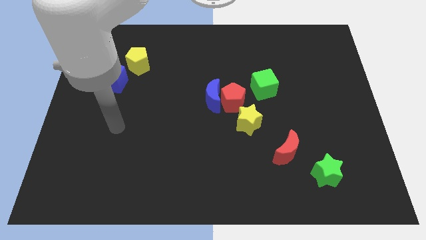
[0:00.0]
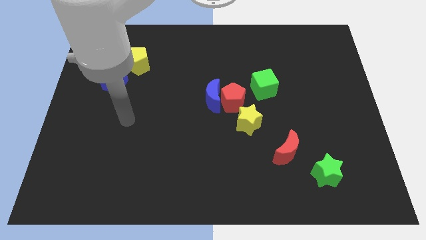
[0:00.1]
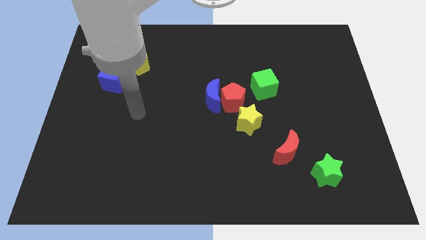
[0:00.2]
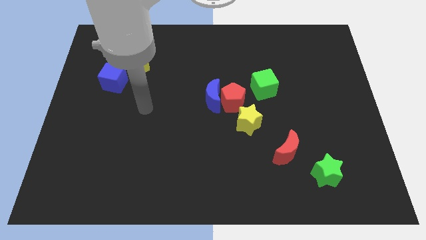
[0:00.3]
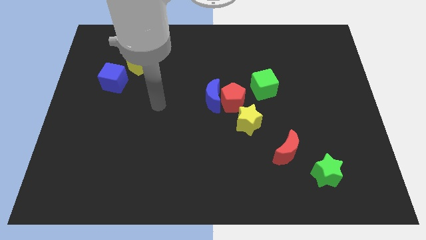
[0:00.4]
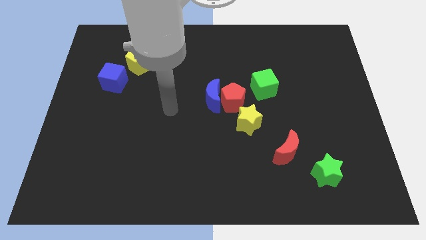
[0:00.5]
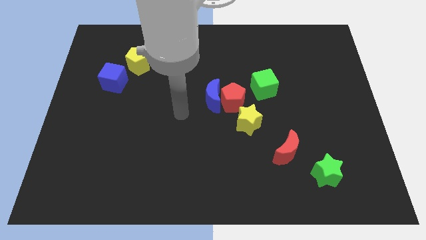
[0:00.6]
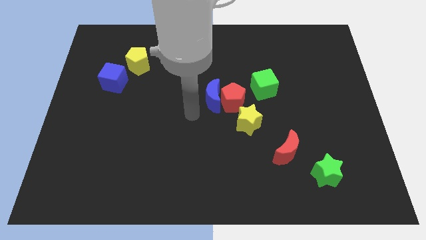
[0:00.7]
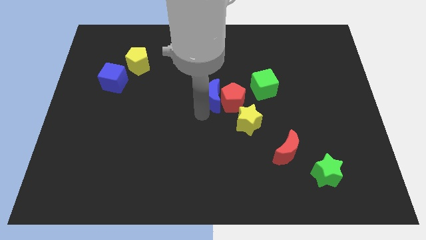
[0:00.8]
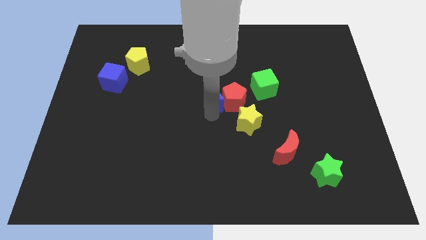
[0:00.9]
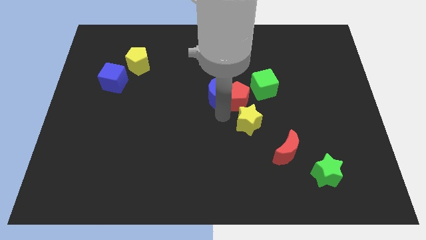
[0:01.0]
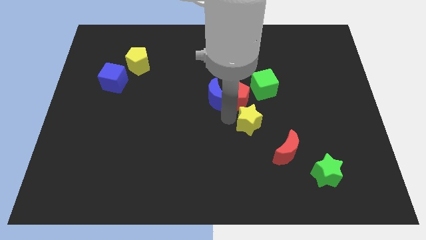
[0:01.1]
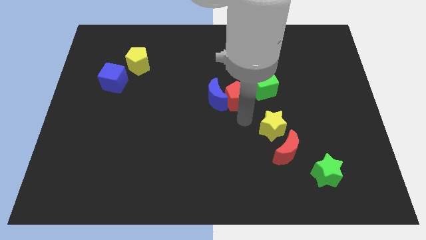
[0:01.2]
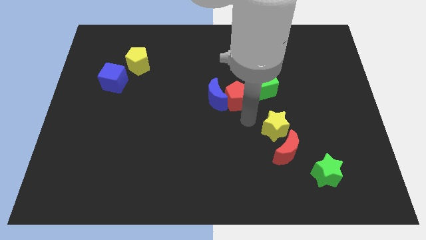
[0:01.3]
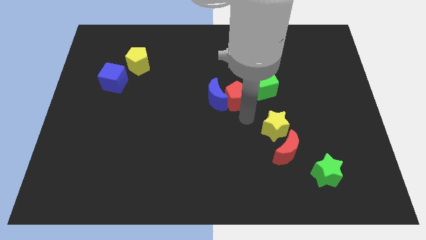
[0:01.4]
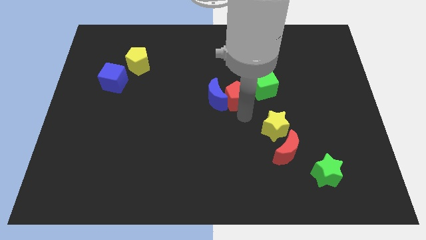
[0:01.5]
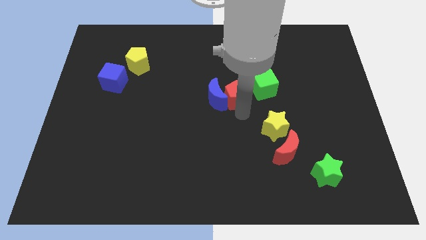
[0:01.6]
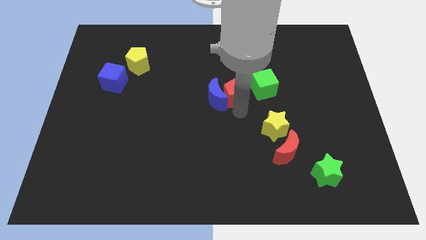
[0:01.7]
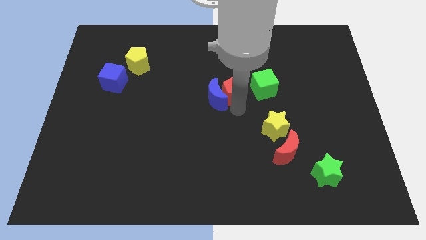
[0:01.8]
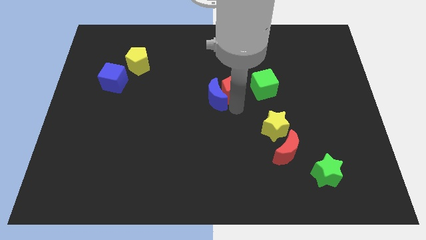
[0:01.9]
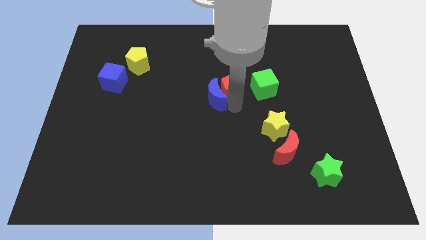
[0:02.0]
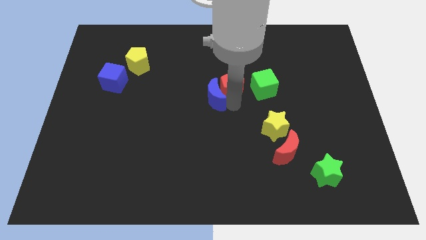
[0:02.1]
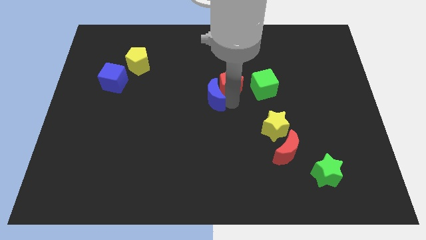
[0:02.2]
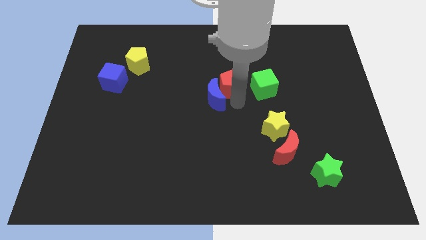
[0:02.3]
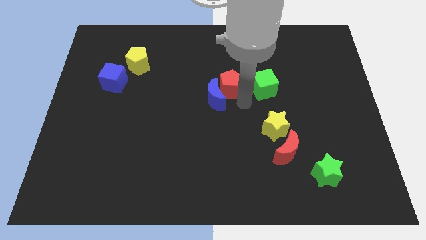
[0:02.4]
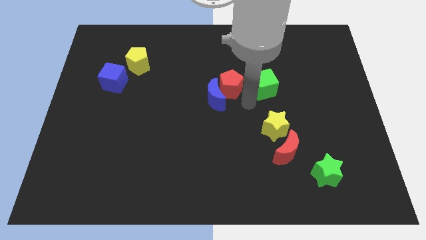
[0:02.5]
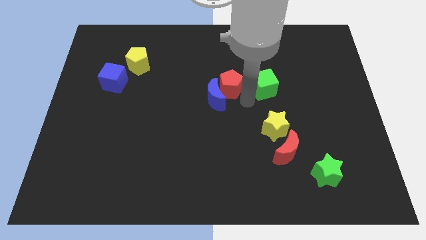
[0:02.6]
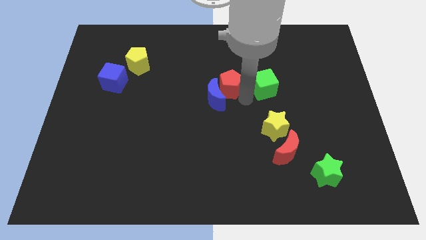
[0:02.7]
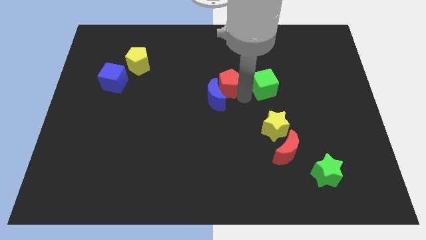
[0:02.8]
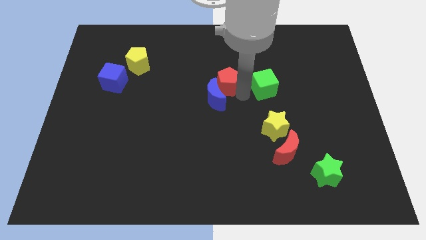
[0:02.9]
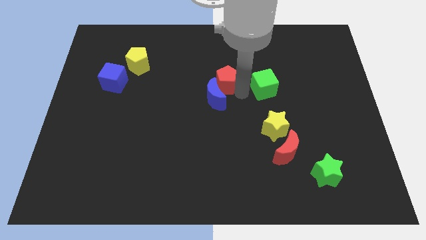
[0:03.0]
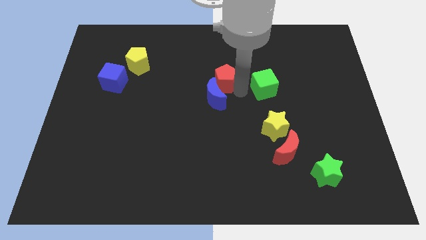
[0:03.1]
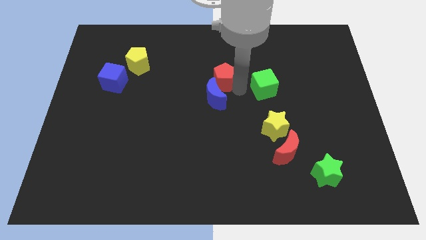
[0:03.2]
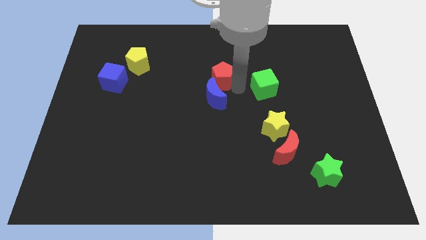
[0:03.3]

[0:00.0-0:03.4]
pull the red pentagon apart from the group

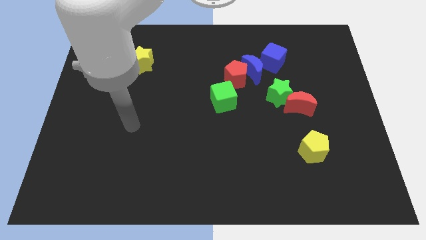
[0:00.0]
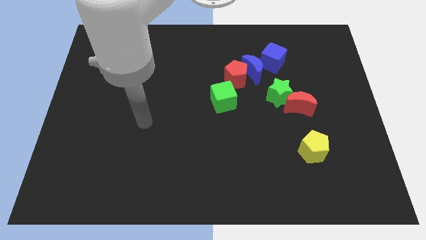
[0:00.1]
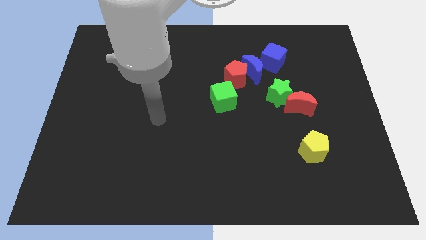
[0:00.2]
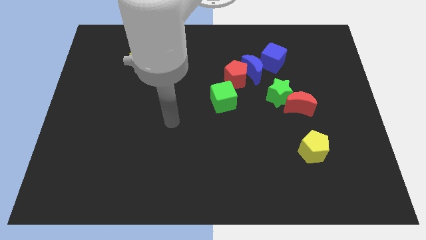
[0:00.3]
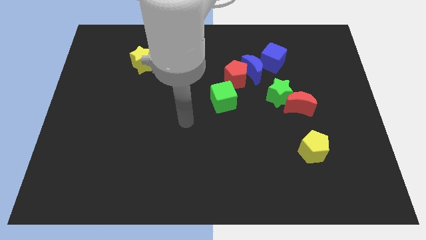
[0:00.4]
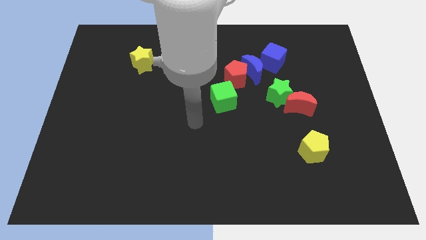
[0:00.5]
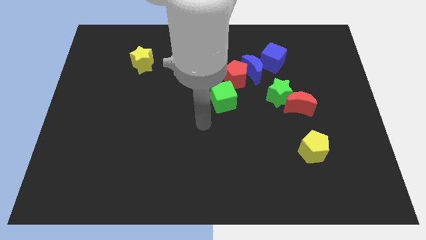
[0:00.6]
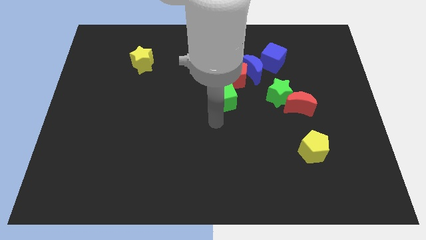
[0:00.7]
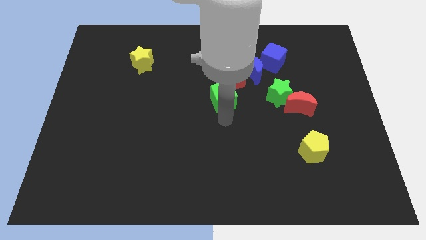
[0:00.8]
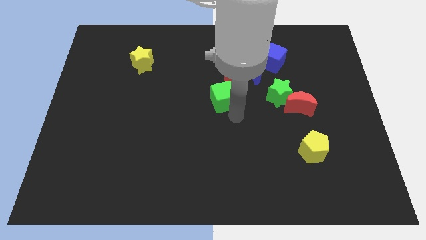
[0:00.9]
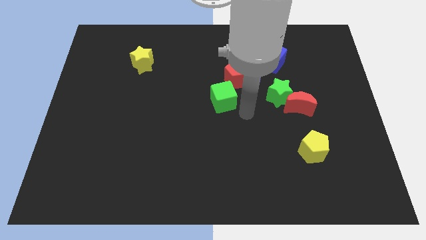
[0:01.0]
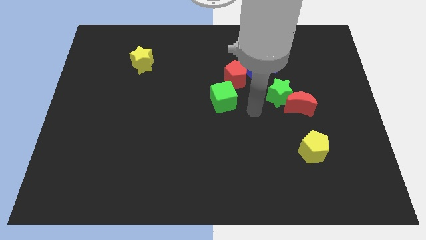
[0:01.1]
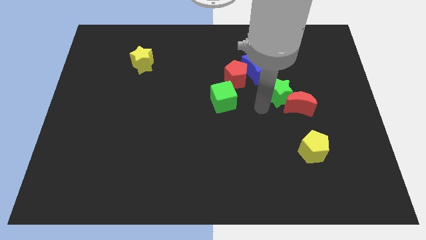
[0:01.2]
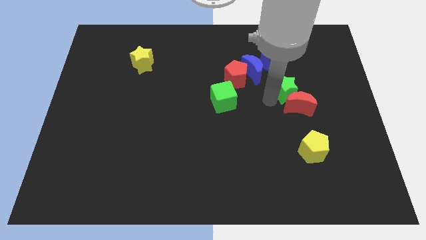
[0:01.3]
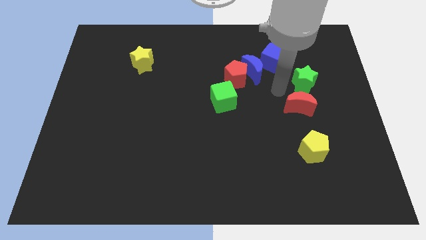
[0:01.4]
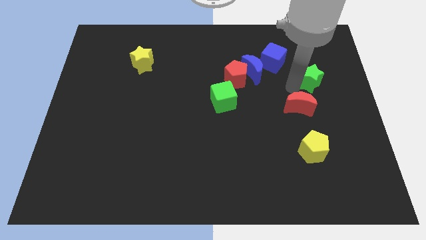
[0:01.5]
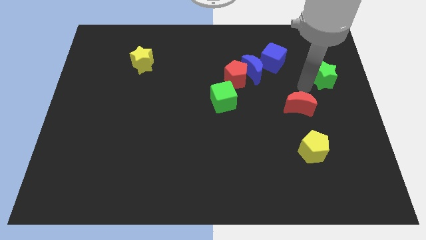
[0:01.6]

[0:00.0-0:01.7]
pull the red moon apart from the green star

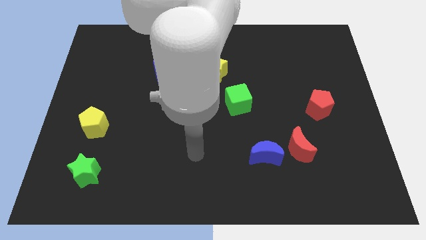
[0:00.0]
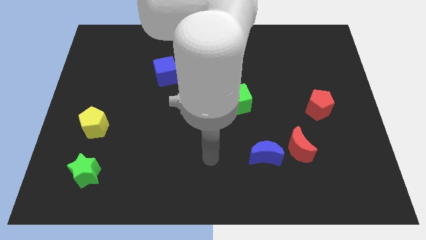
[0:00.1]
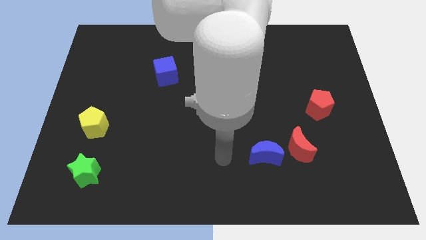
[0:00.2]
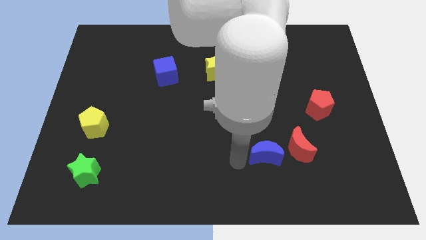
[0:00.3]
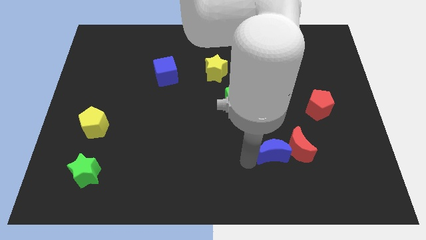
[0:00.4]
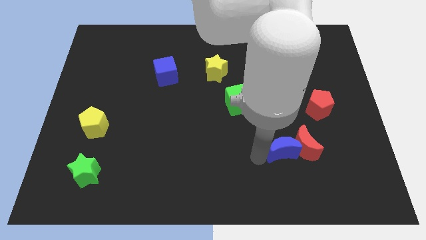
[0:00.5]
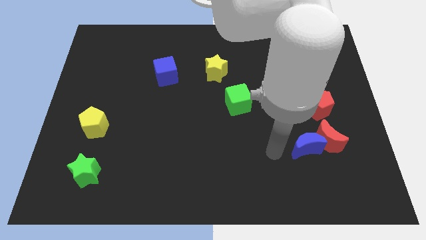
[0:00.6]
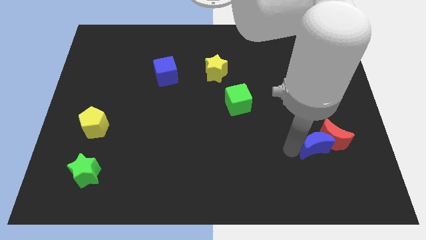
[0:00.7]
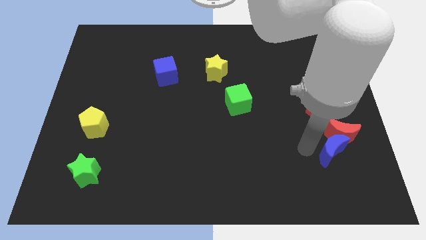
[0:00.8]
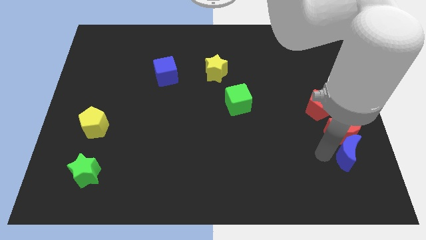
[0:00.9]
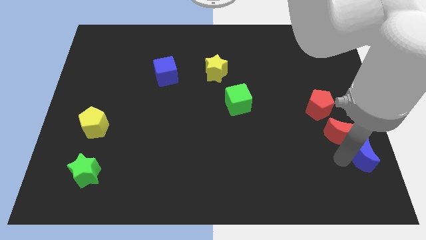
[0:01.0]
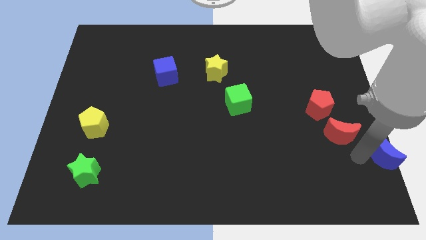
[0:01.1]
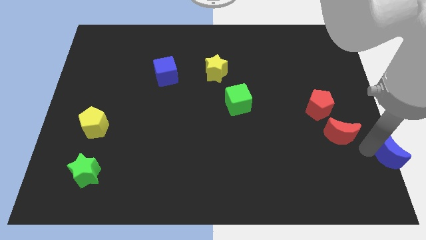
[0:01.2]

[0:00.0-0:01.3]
move the red moon away from the blue moon

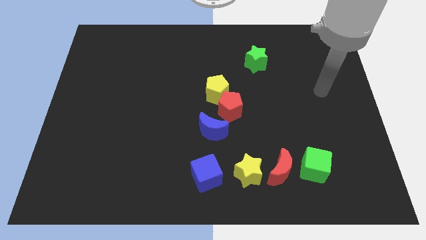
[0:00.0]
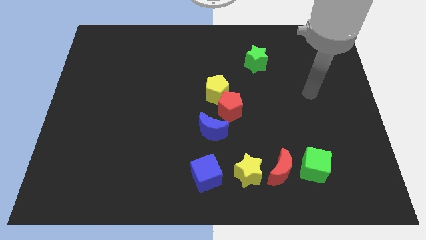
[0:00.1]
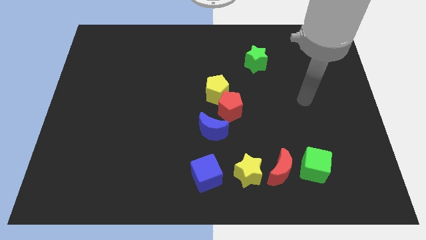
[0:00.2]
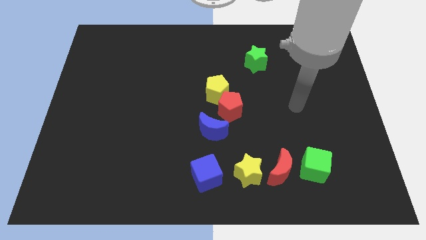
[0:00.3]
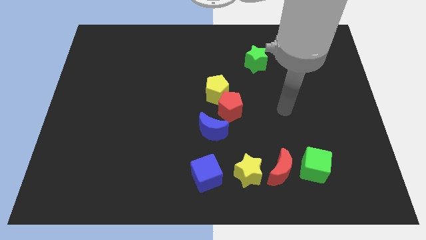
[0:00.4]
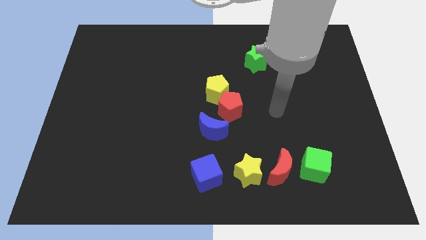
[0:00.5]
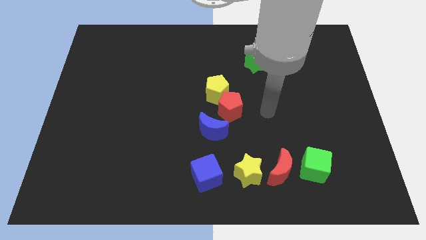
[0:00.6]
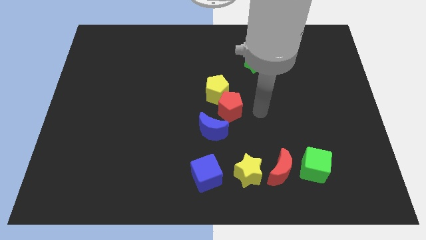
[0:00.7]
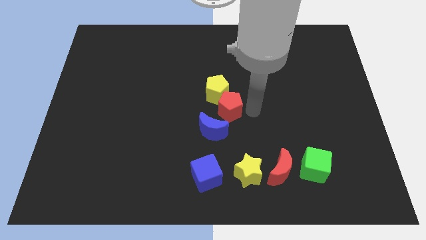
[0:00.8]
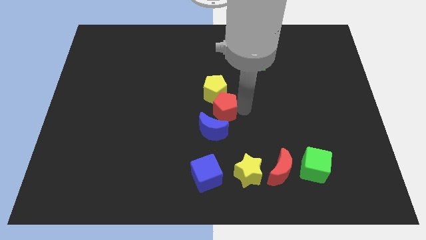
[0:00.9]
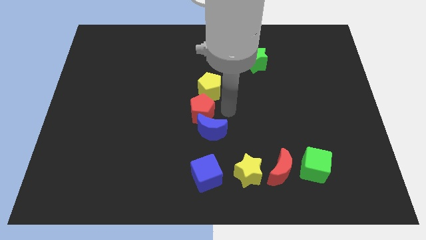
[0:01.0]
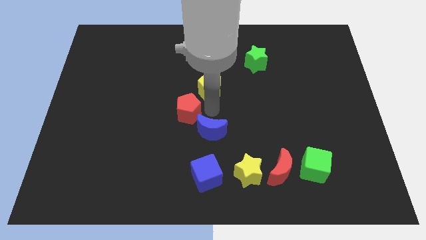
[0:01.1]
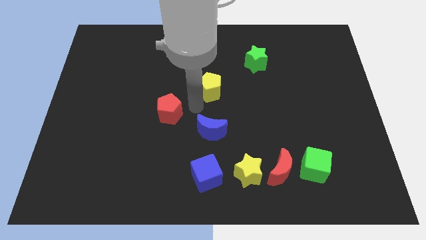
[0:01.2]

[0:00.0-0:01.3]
separate the yellow pentagon from the red pentagon

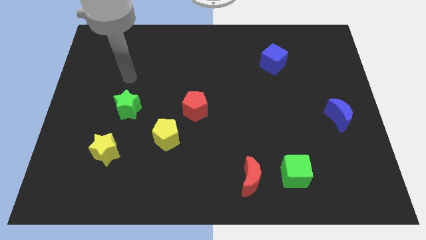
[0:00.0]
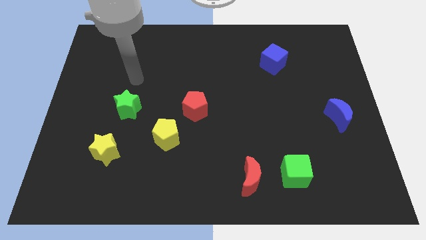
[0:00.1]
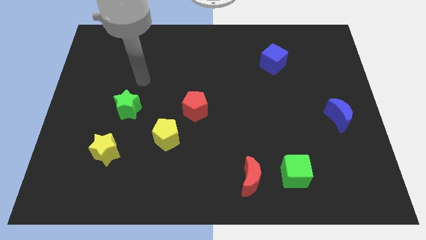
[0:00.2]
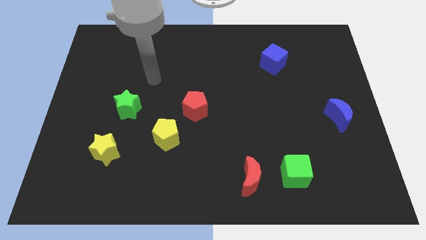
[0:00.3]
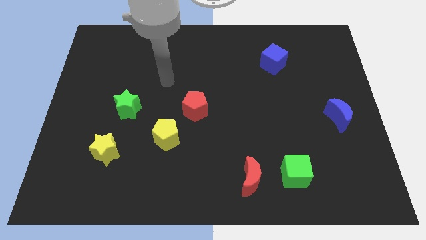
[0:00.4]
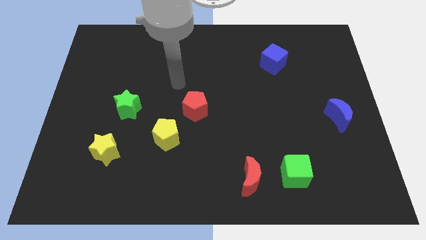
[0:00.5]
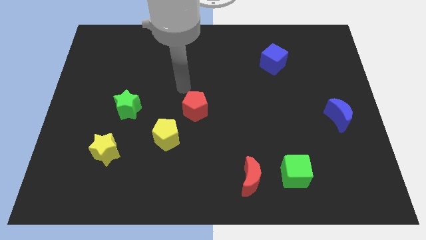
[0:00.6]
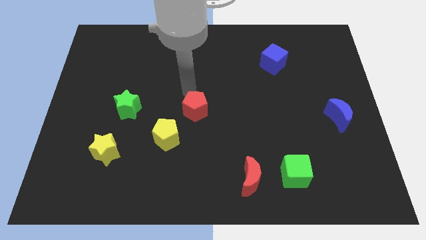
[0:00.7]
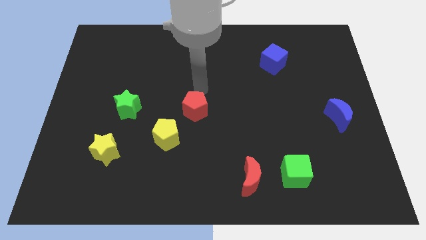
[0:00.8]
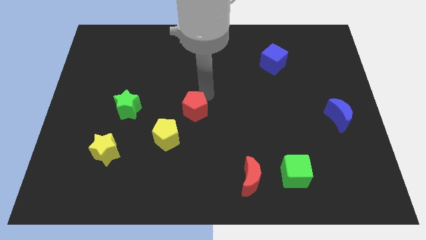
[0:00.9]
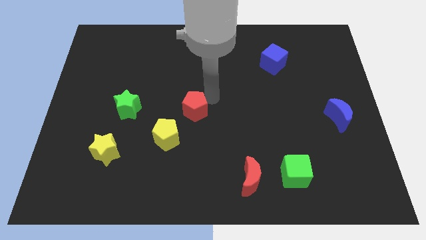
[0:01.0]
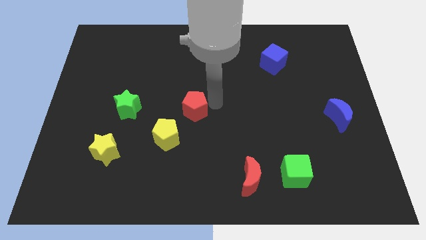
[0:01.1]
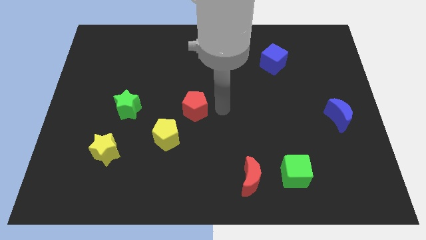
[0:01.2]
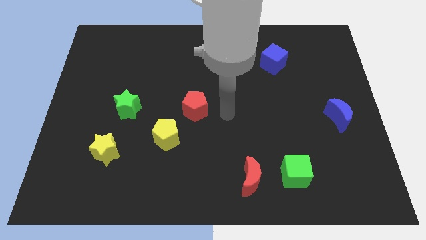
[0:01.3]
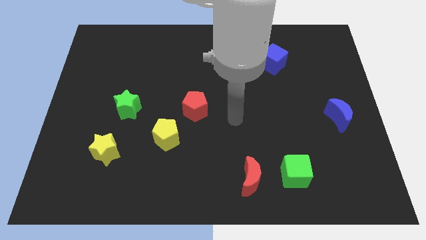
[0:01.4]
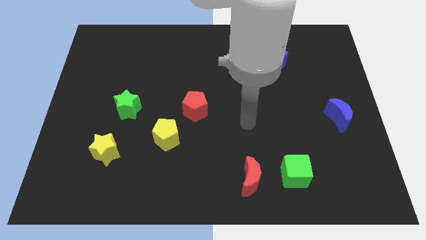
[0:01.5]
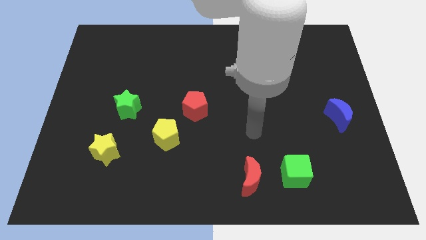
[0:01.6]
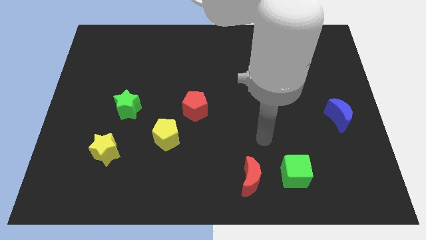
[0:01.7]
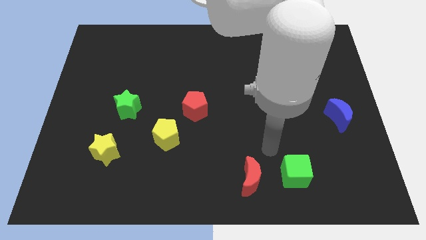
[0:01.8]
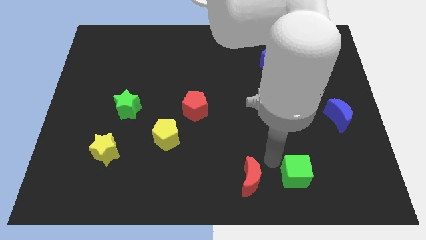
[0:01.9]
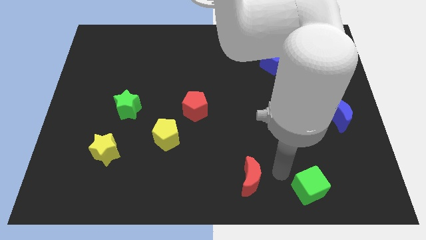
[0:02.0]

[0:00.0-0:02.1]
pull the red moon apart from the green cube
